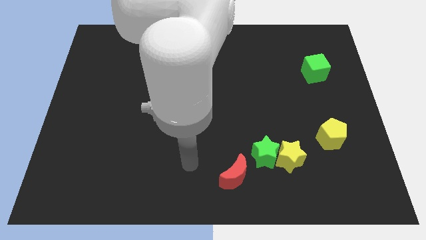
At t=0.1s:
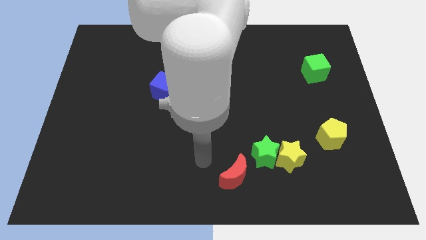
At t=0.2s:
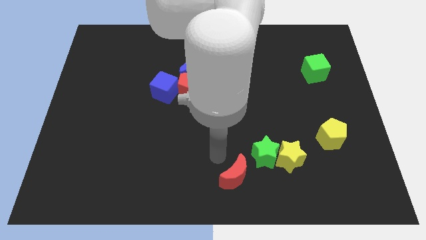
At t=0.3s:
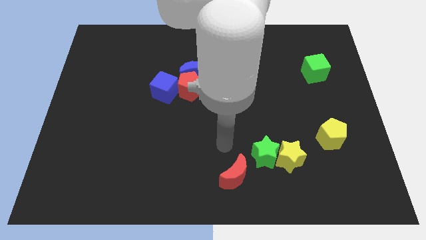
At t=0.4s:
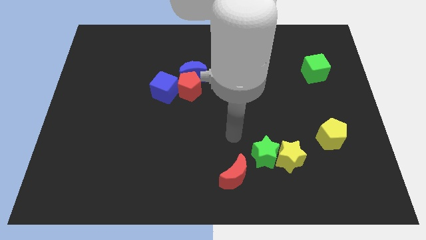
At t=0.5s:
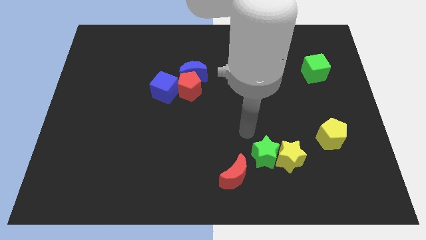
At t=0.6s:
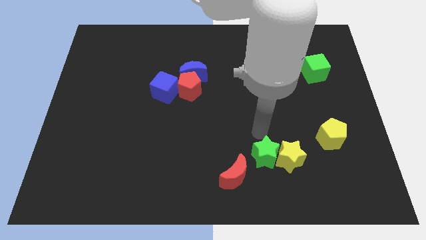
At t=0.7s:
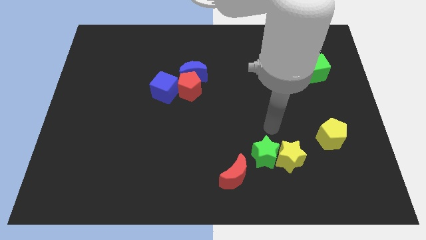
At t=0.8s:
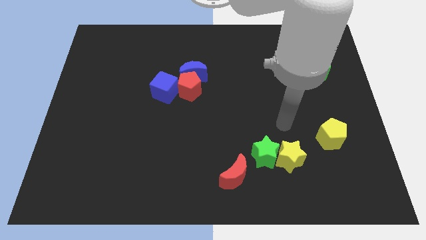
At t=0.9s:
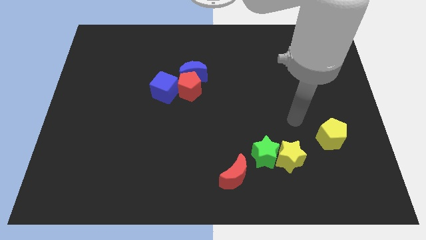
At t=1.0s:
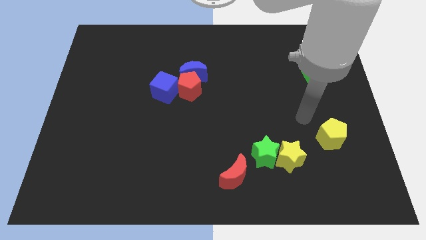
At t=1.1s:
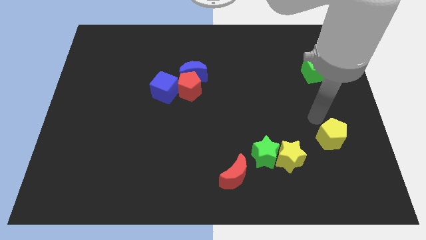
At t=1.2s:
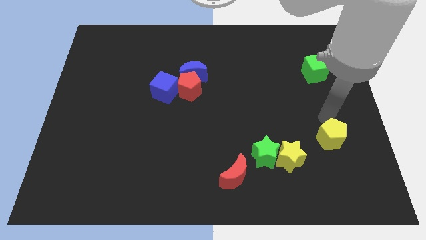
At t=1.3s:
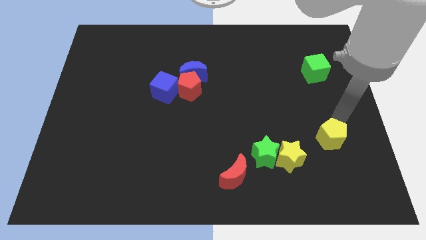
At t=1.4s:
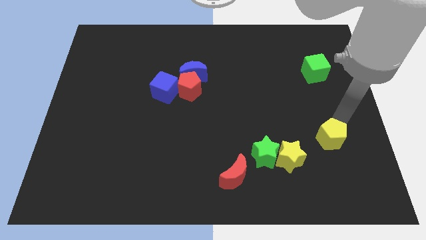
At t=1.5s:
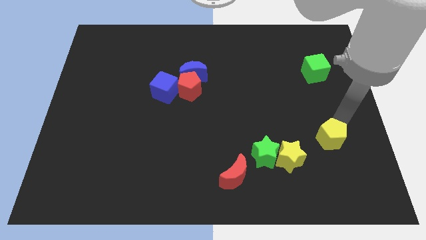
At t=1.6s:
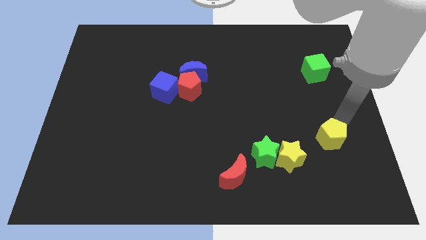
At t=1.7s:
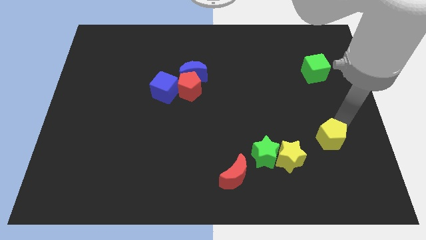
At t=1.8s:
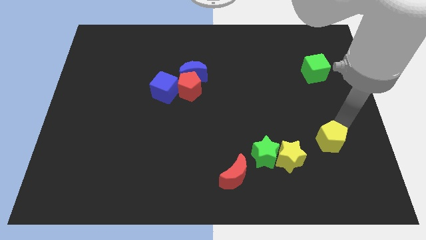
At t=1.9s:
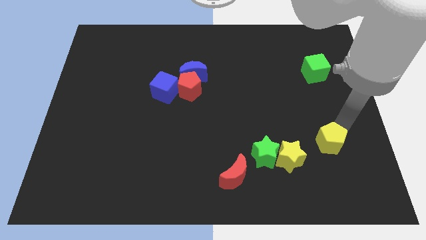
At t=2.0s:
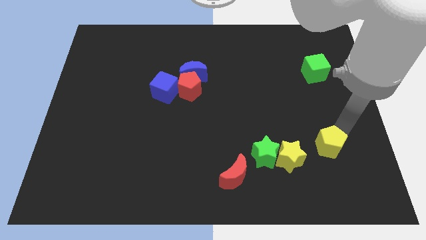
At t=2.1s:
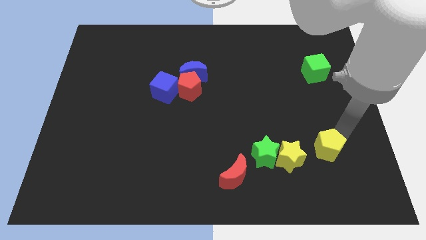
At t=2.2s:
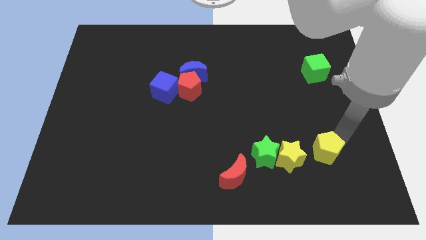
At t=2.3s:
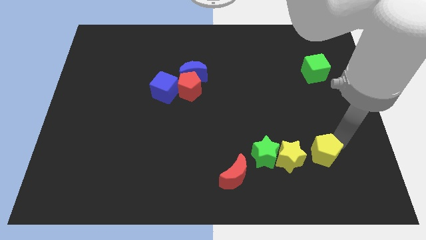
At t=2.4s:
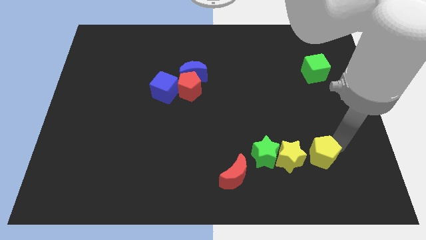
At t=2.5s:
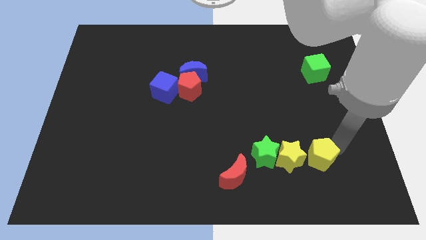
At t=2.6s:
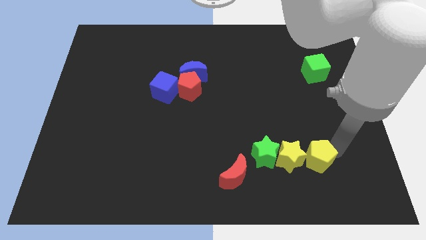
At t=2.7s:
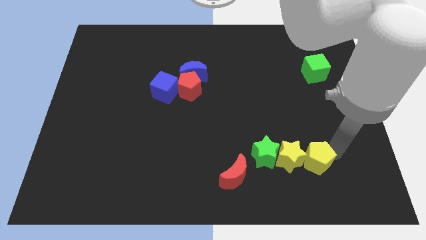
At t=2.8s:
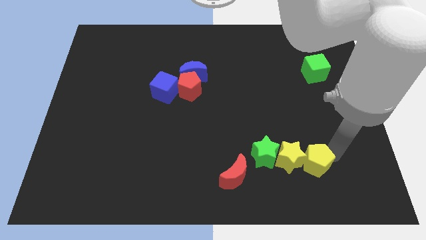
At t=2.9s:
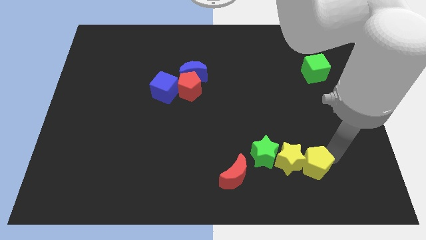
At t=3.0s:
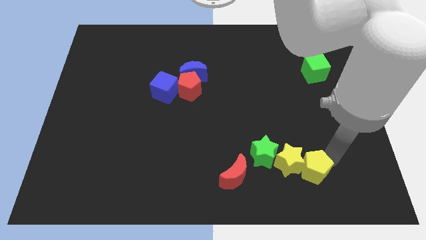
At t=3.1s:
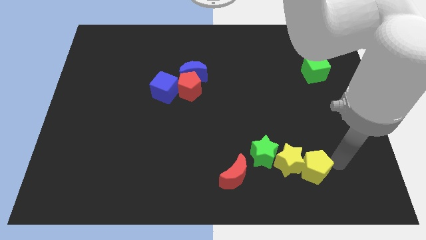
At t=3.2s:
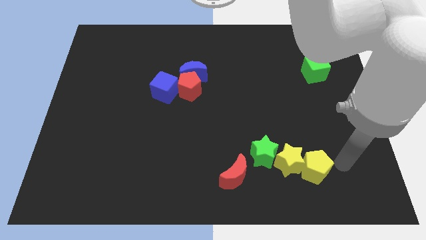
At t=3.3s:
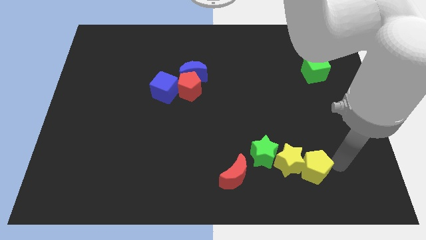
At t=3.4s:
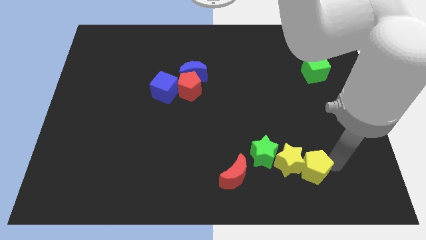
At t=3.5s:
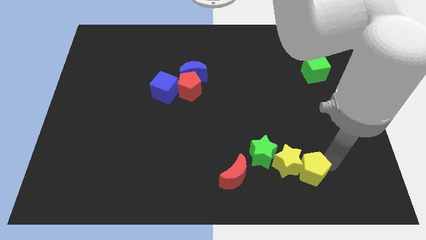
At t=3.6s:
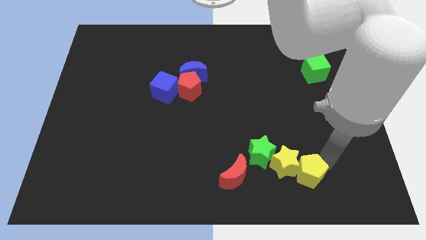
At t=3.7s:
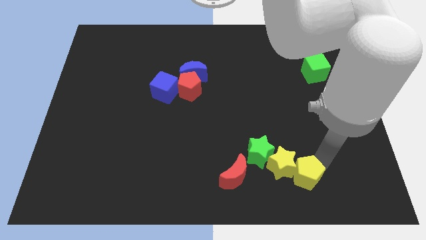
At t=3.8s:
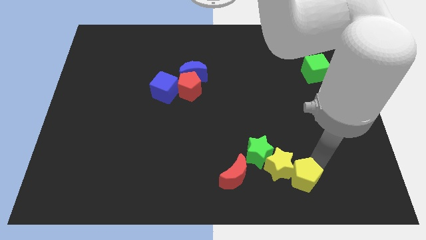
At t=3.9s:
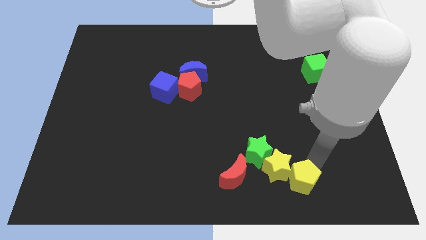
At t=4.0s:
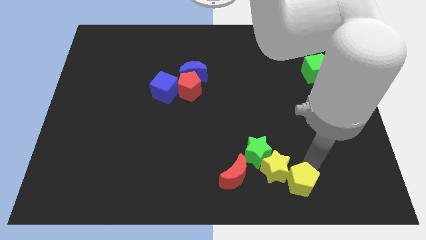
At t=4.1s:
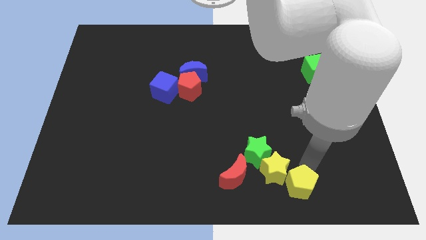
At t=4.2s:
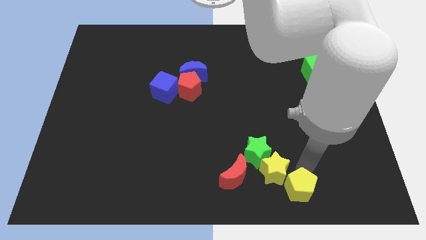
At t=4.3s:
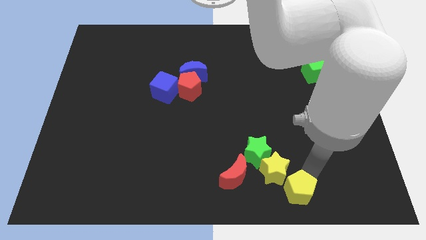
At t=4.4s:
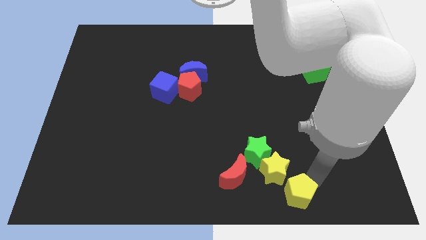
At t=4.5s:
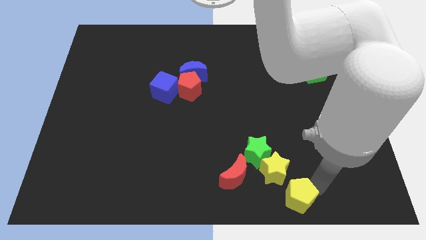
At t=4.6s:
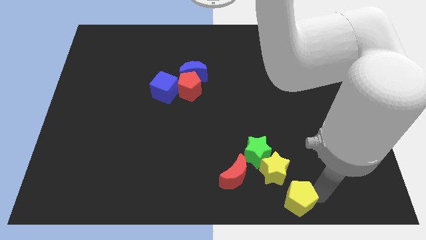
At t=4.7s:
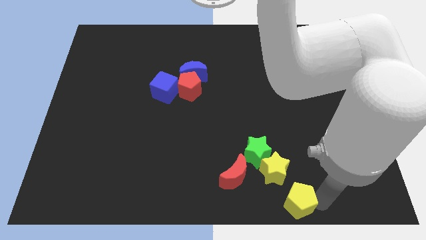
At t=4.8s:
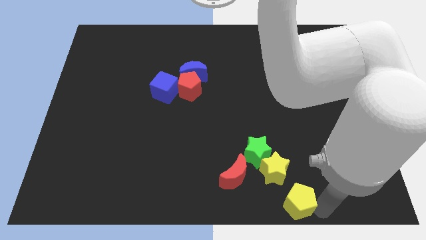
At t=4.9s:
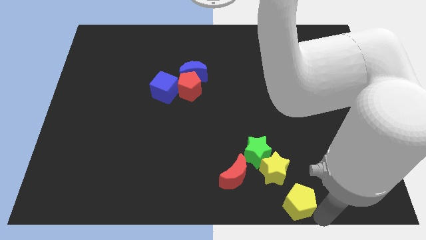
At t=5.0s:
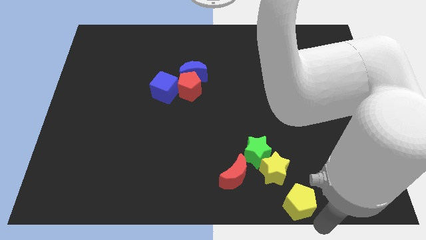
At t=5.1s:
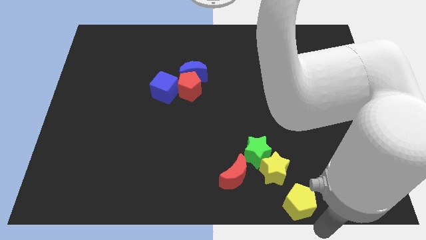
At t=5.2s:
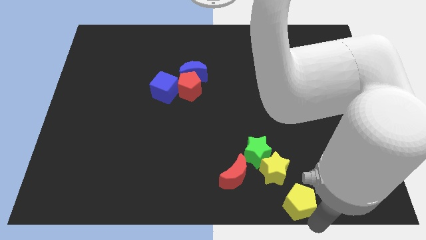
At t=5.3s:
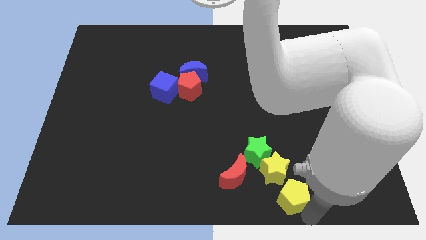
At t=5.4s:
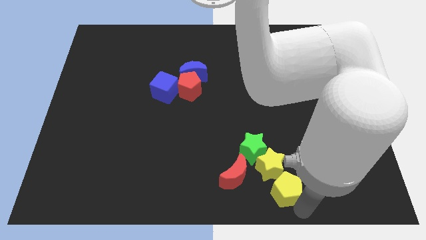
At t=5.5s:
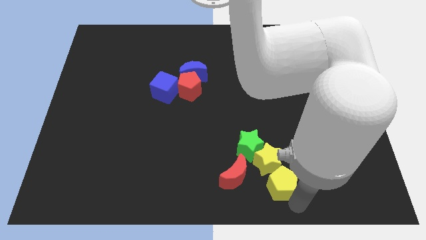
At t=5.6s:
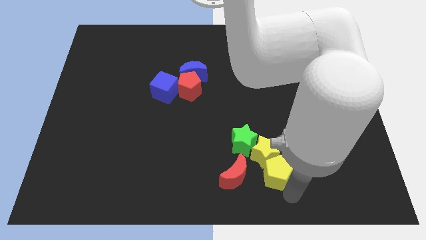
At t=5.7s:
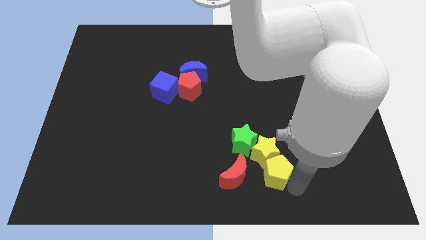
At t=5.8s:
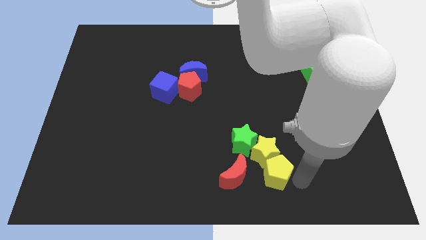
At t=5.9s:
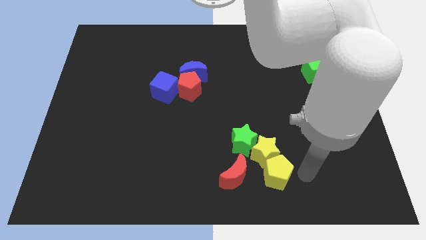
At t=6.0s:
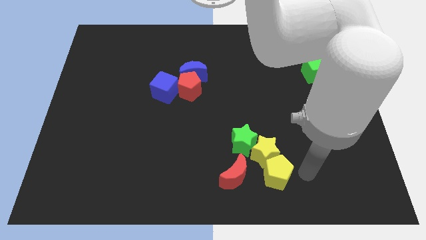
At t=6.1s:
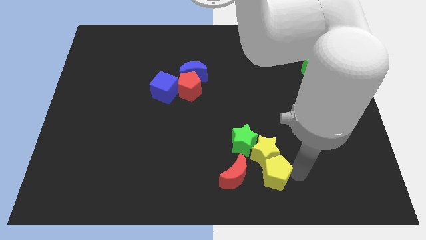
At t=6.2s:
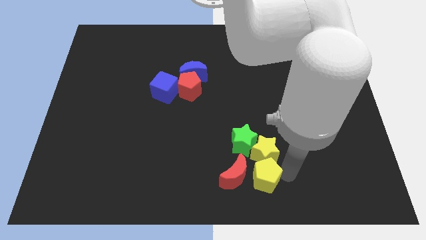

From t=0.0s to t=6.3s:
put the yellow pentagon to the red moon

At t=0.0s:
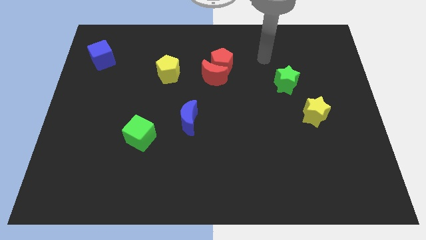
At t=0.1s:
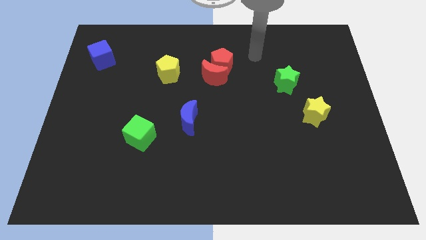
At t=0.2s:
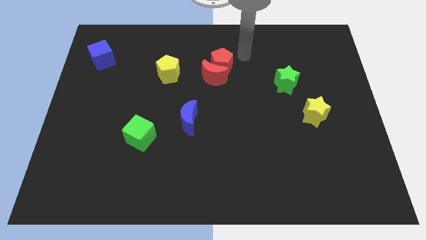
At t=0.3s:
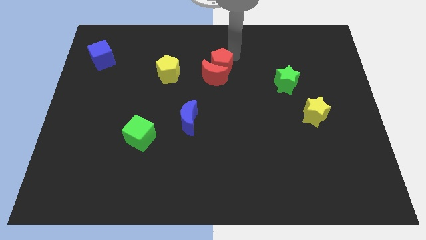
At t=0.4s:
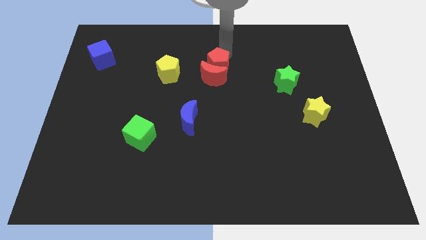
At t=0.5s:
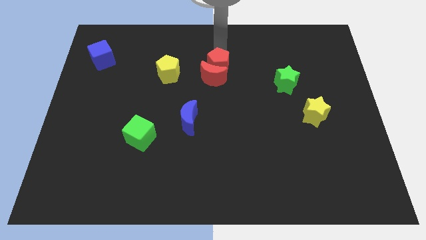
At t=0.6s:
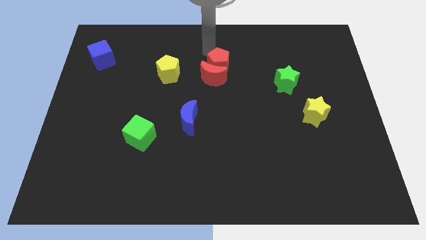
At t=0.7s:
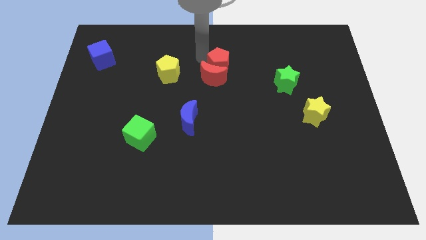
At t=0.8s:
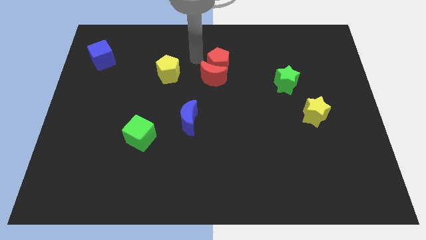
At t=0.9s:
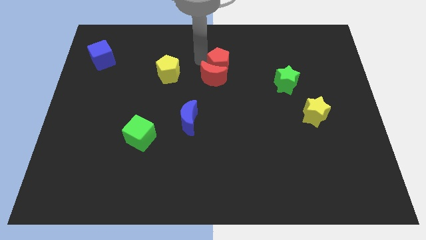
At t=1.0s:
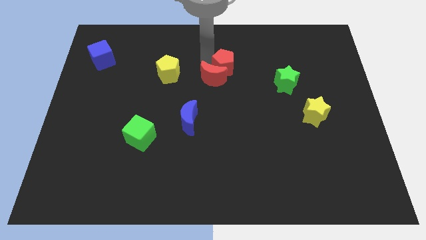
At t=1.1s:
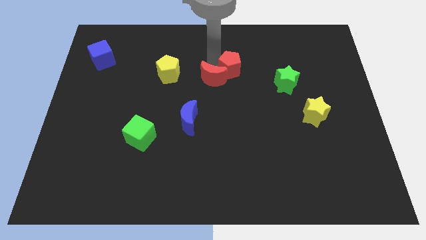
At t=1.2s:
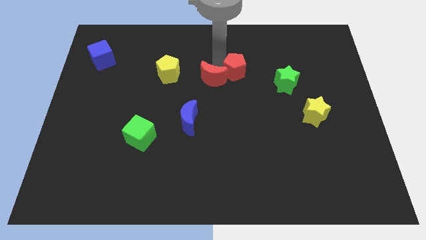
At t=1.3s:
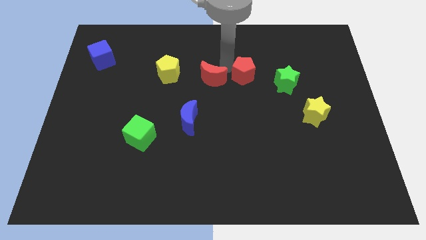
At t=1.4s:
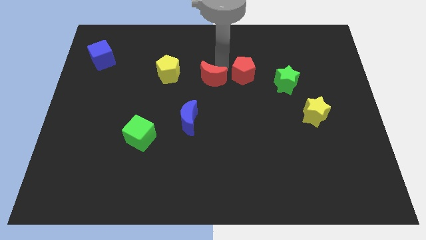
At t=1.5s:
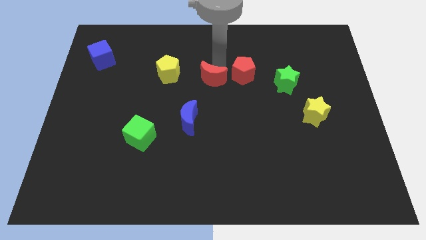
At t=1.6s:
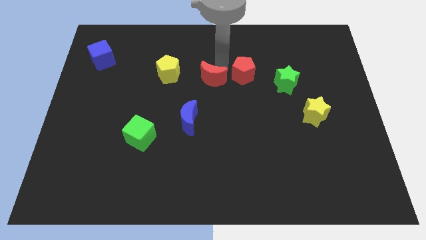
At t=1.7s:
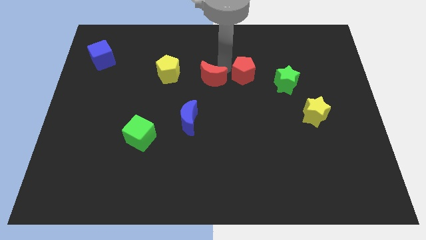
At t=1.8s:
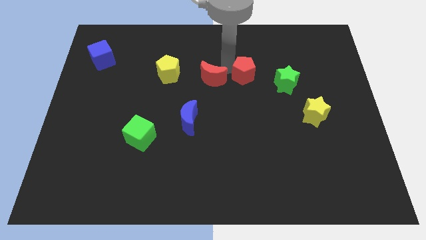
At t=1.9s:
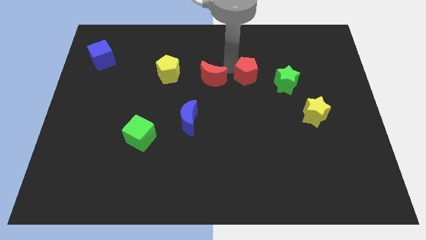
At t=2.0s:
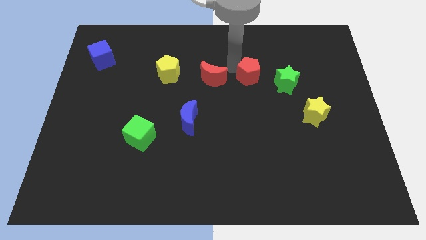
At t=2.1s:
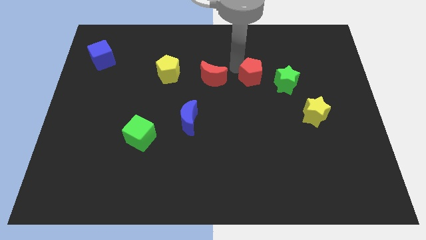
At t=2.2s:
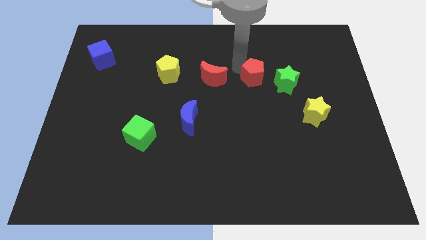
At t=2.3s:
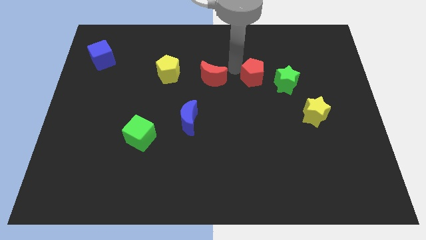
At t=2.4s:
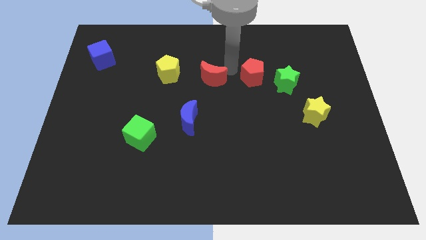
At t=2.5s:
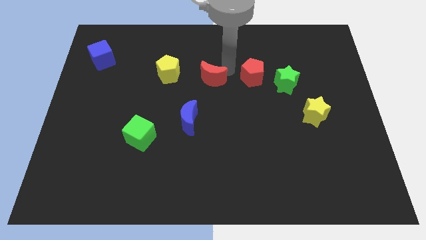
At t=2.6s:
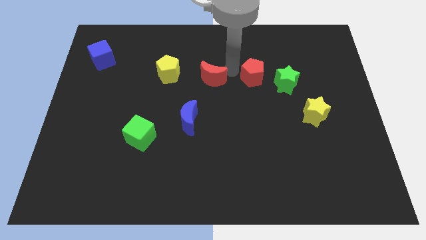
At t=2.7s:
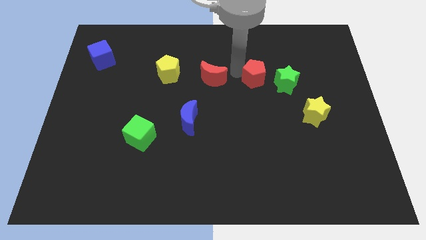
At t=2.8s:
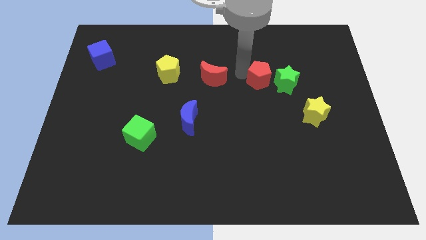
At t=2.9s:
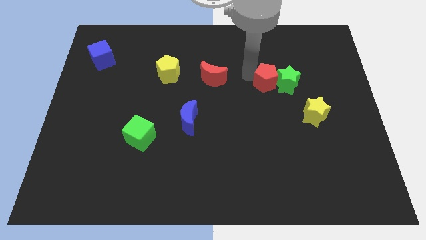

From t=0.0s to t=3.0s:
push the red pentagon close to the green star
